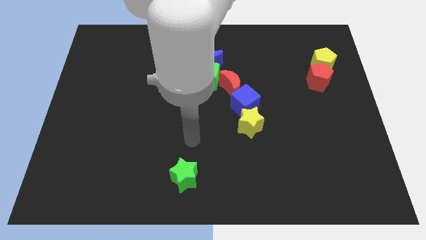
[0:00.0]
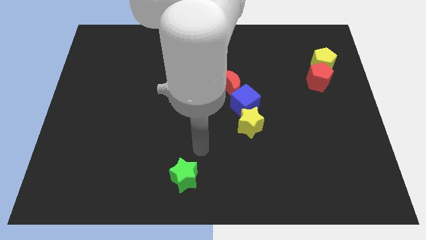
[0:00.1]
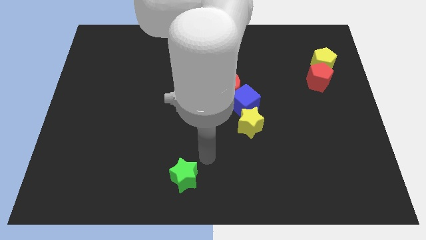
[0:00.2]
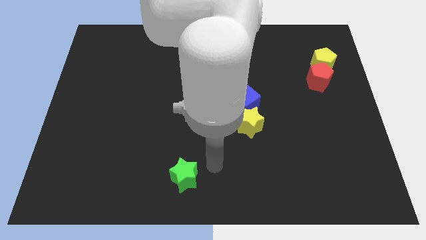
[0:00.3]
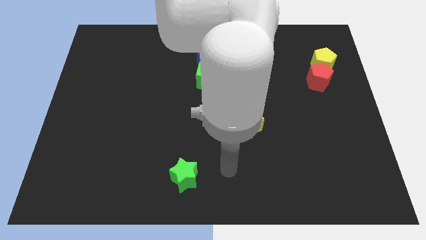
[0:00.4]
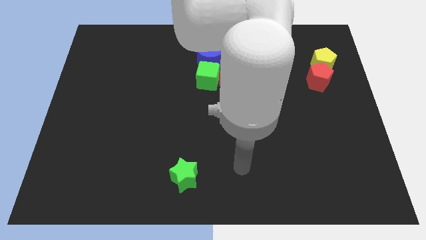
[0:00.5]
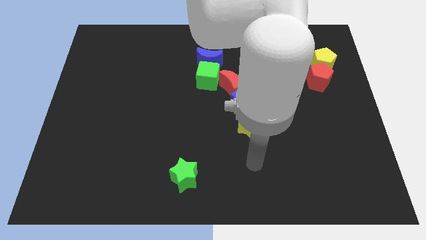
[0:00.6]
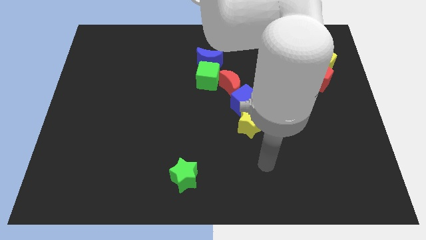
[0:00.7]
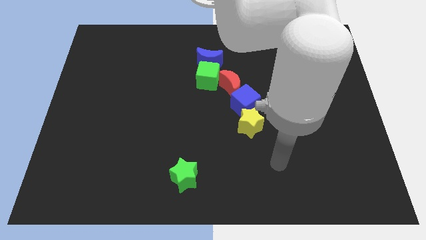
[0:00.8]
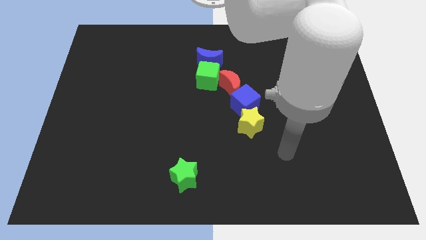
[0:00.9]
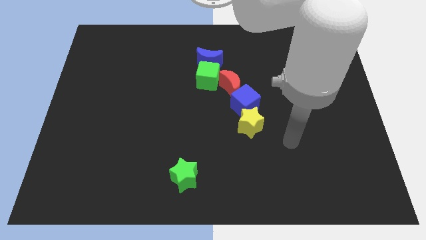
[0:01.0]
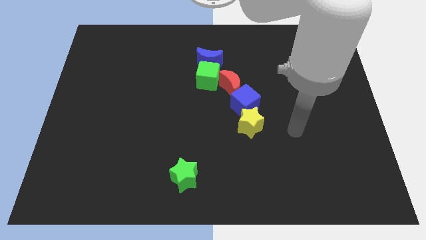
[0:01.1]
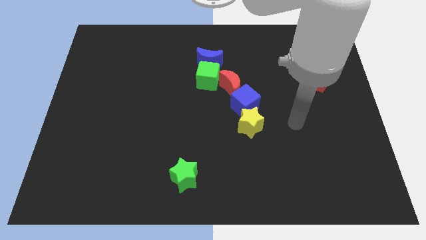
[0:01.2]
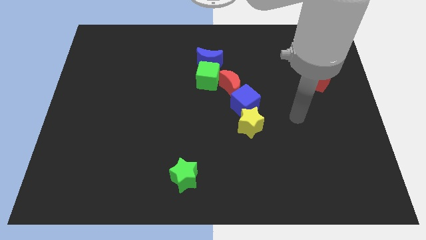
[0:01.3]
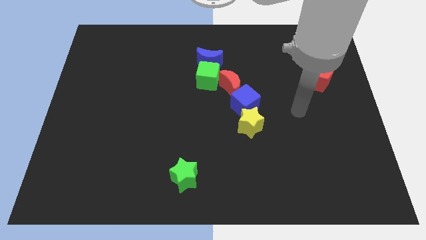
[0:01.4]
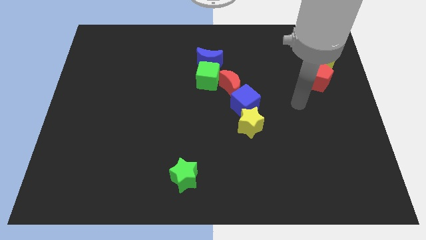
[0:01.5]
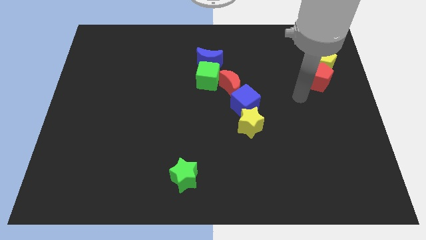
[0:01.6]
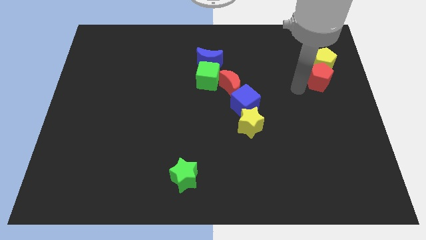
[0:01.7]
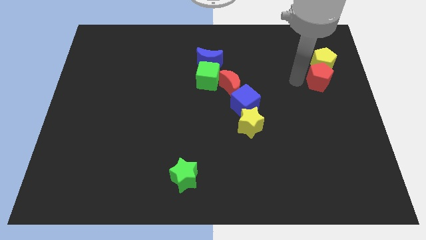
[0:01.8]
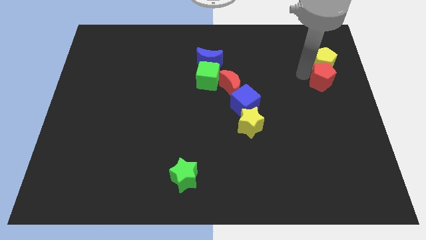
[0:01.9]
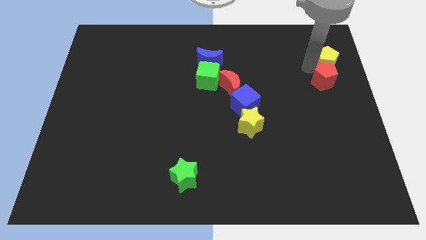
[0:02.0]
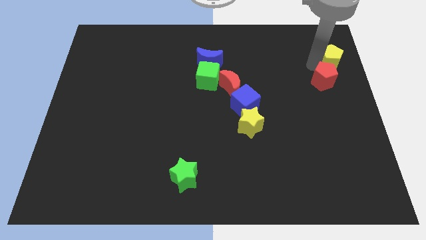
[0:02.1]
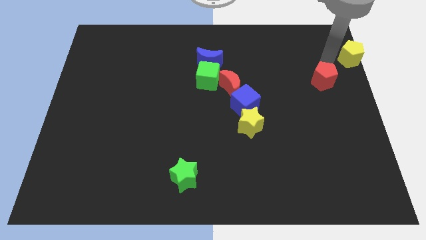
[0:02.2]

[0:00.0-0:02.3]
separate the red pentagon from the yellow pentagon

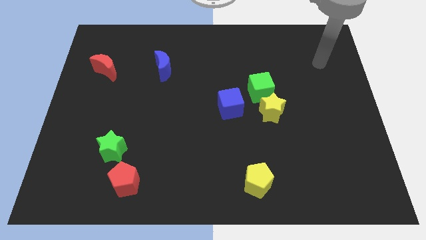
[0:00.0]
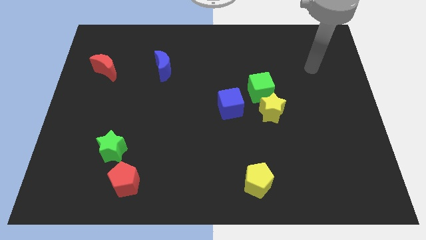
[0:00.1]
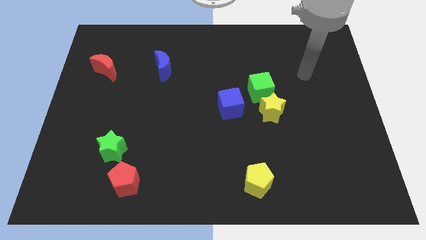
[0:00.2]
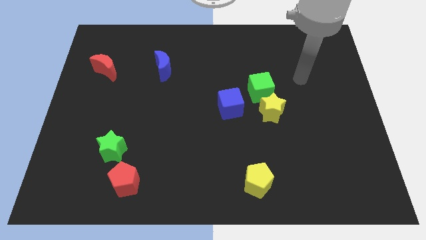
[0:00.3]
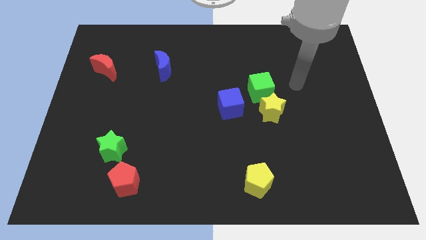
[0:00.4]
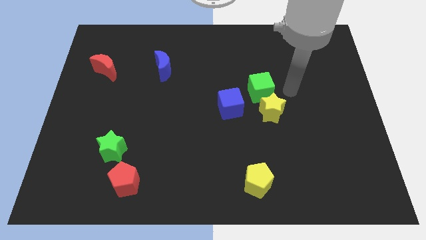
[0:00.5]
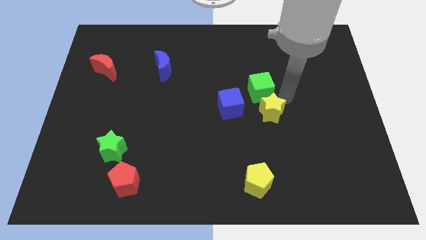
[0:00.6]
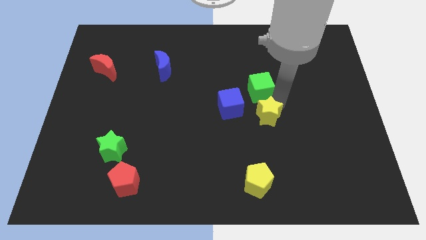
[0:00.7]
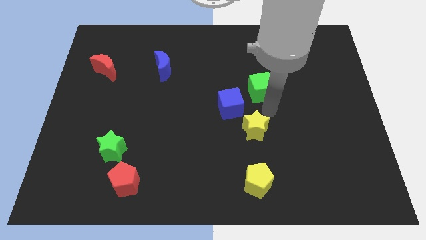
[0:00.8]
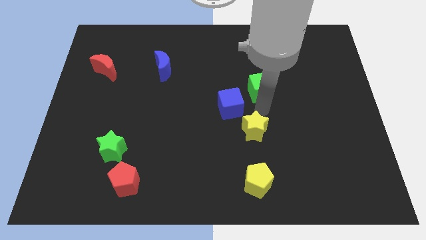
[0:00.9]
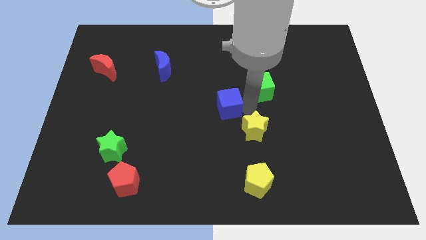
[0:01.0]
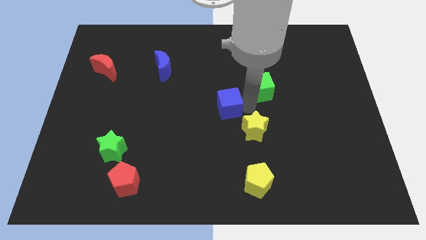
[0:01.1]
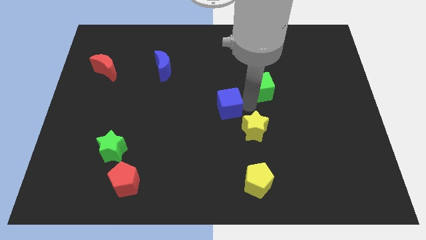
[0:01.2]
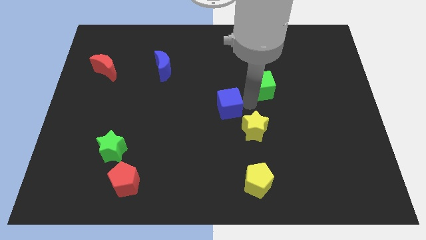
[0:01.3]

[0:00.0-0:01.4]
move the green cube away from the yellow star and blue cube

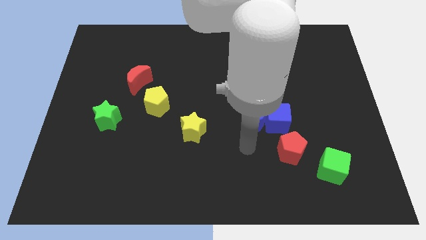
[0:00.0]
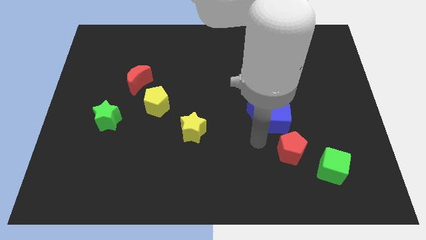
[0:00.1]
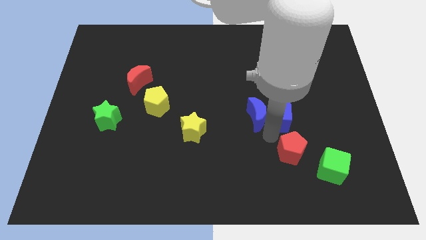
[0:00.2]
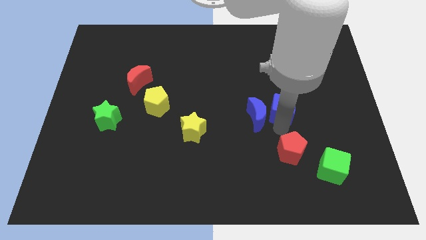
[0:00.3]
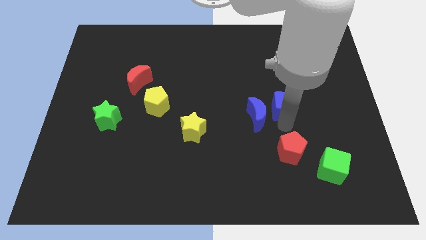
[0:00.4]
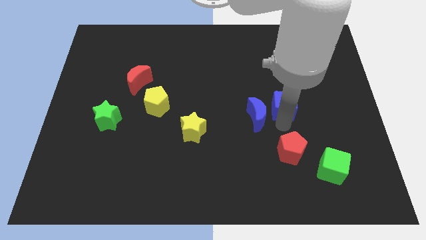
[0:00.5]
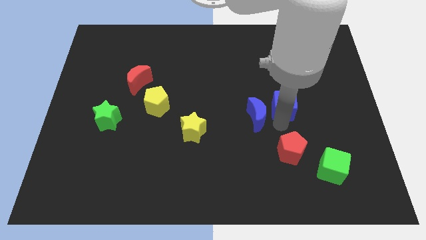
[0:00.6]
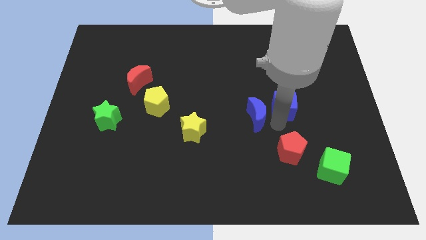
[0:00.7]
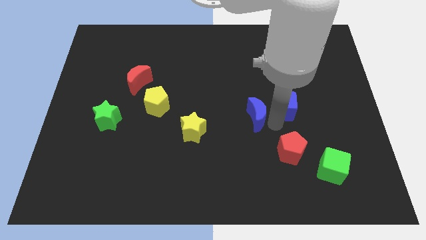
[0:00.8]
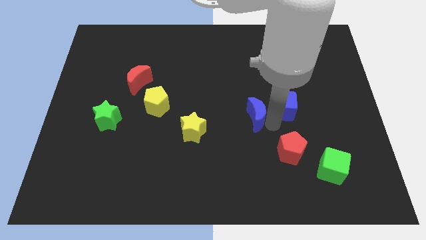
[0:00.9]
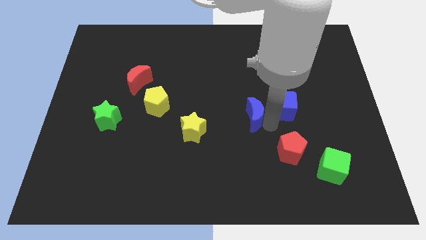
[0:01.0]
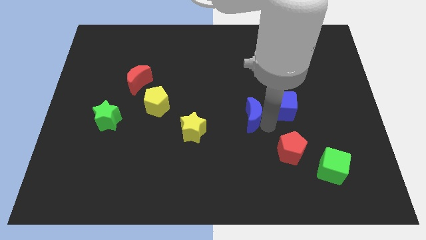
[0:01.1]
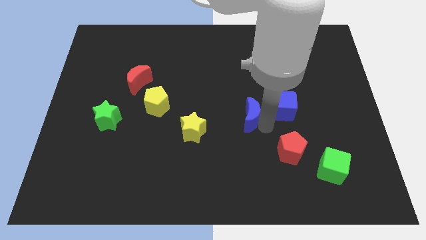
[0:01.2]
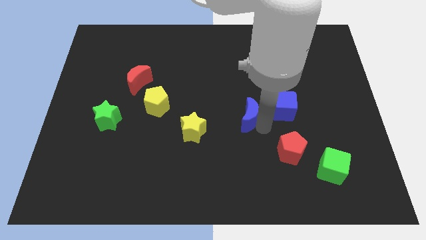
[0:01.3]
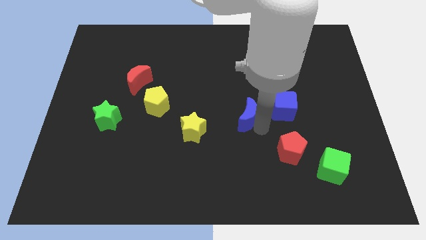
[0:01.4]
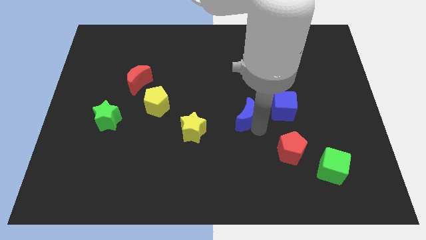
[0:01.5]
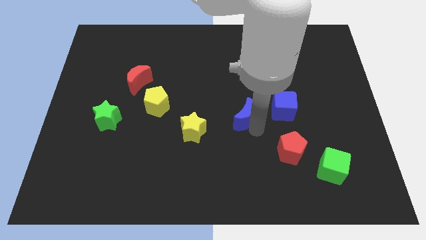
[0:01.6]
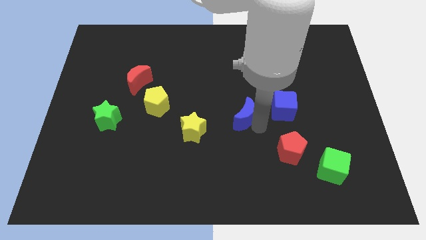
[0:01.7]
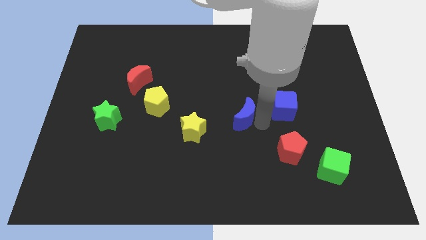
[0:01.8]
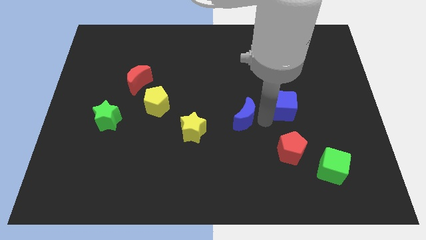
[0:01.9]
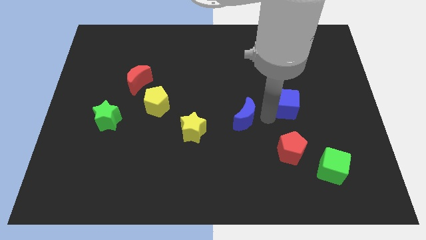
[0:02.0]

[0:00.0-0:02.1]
separate the blue moon from the blue cube

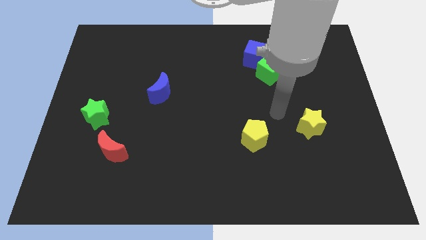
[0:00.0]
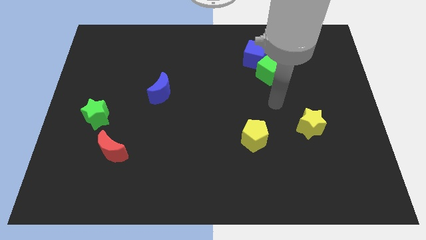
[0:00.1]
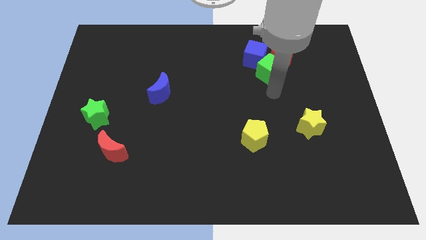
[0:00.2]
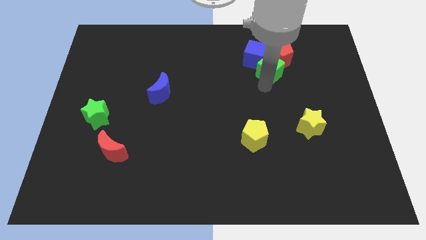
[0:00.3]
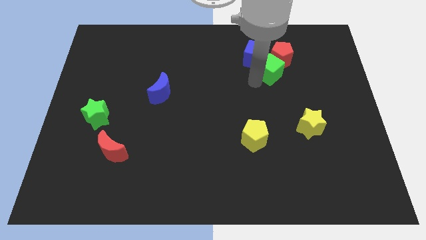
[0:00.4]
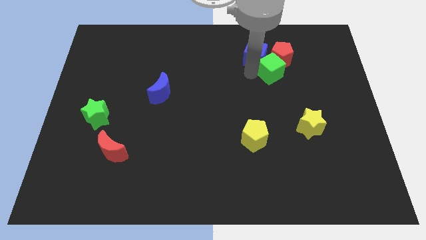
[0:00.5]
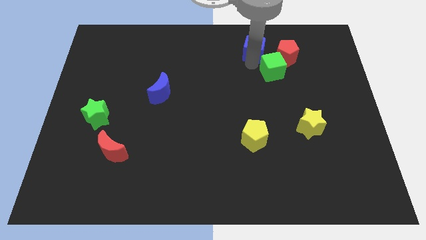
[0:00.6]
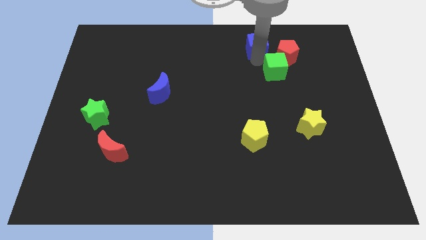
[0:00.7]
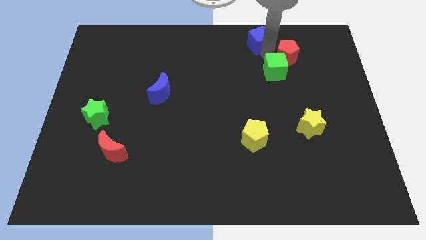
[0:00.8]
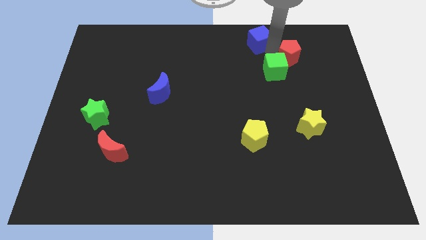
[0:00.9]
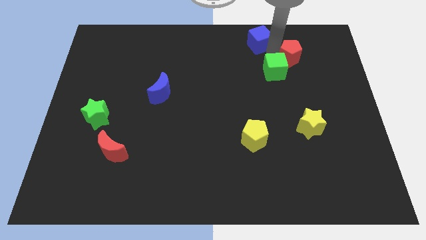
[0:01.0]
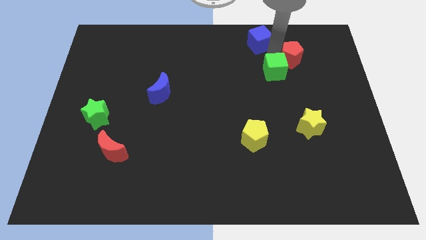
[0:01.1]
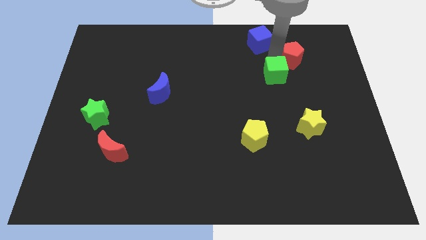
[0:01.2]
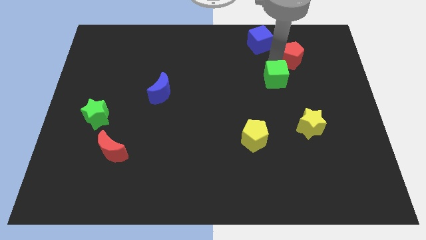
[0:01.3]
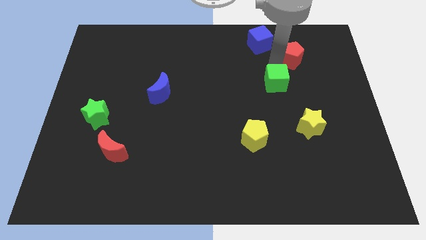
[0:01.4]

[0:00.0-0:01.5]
separate the green cube from the red pentagon and blue cube

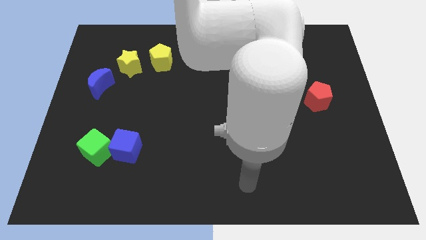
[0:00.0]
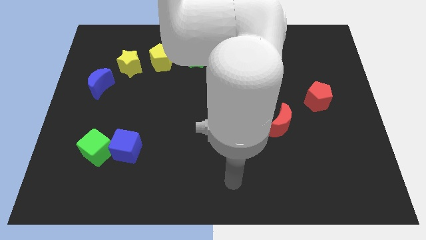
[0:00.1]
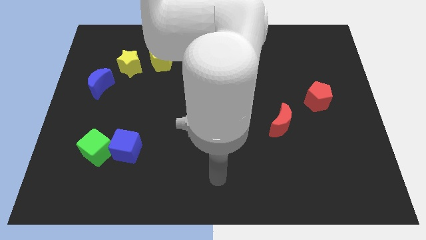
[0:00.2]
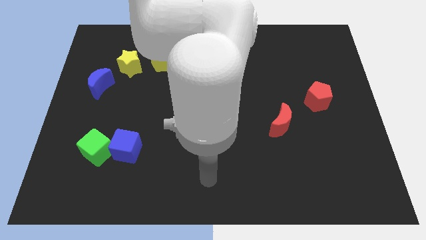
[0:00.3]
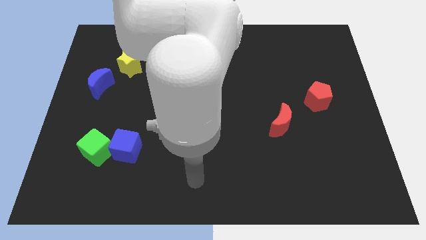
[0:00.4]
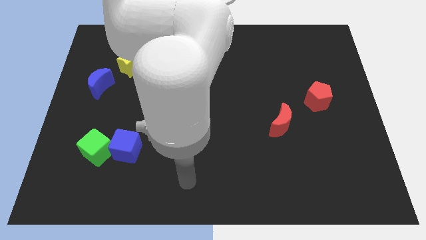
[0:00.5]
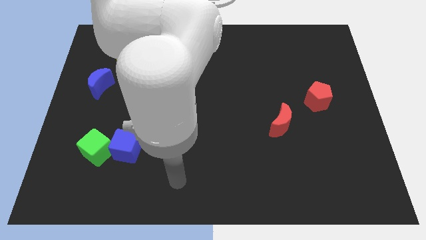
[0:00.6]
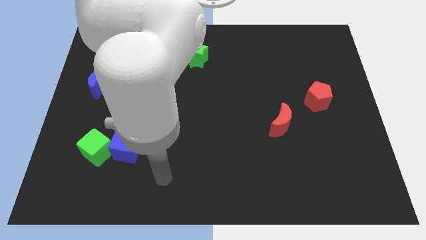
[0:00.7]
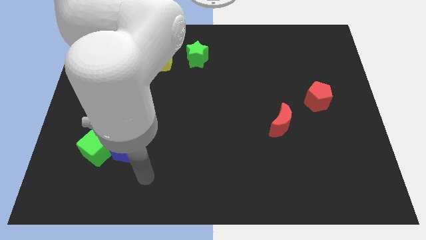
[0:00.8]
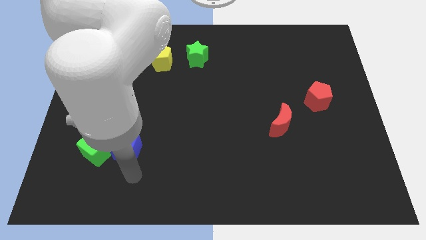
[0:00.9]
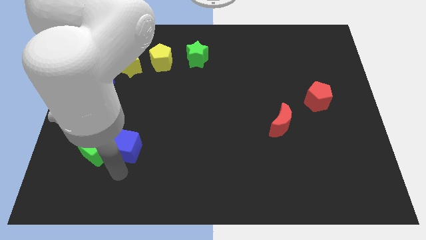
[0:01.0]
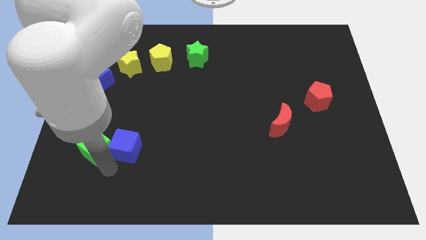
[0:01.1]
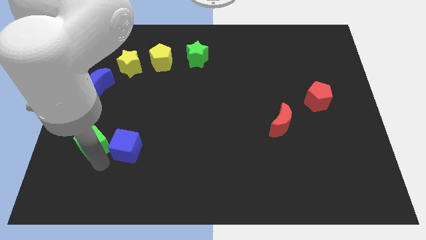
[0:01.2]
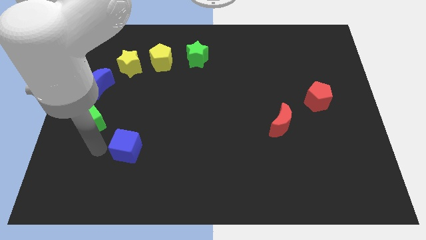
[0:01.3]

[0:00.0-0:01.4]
separate the blue cube from the green cube

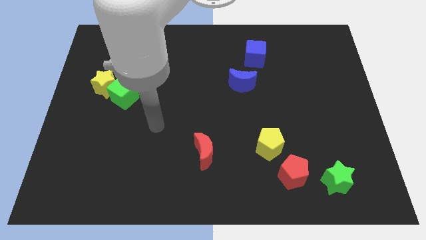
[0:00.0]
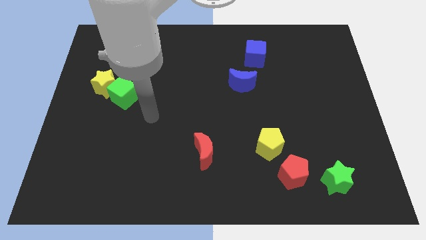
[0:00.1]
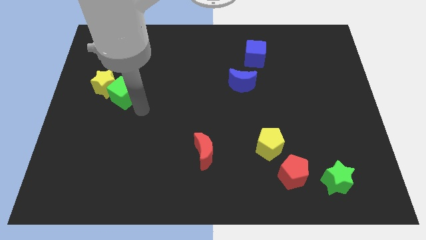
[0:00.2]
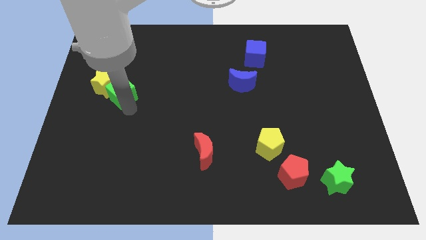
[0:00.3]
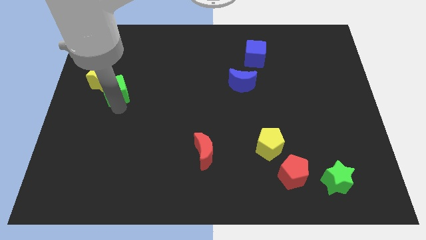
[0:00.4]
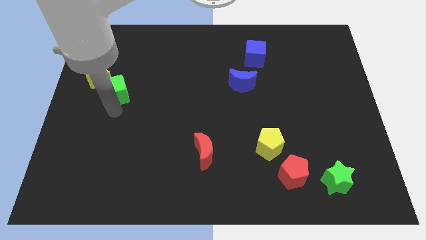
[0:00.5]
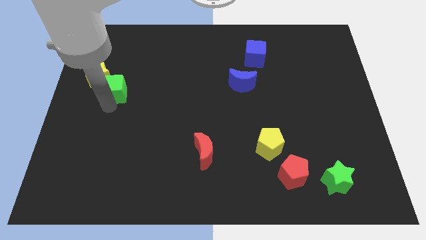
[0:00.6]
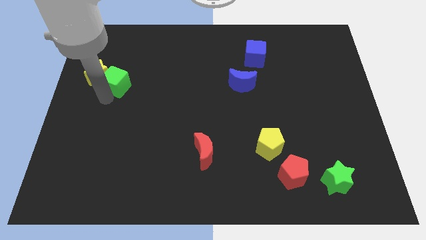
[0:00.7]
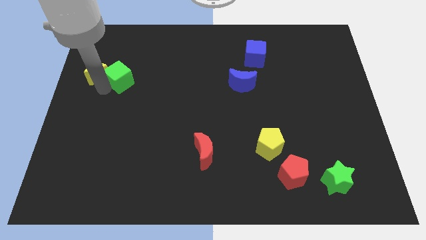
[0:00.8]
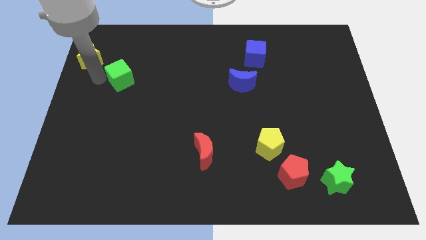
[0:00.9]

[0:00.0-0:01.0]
move the green cube away from the yellow star
